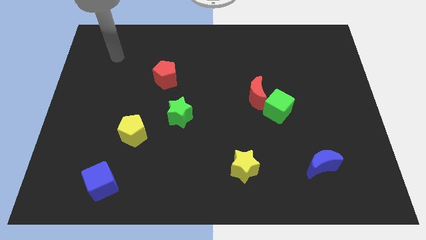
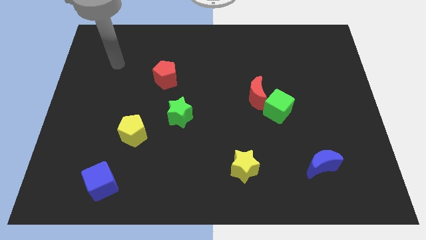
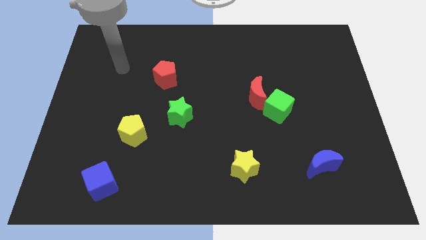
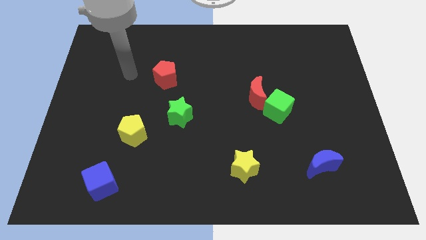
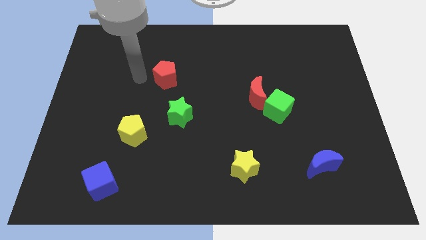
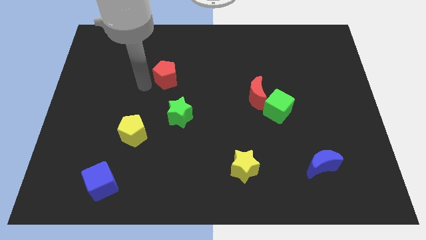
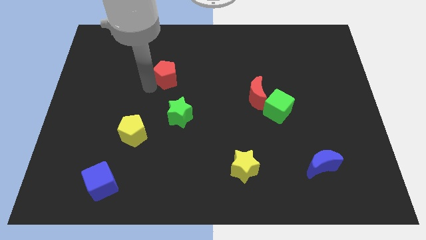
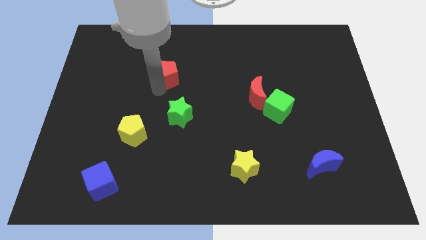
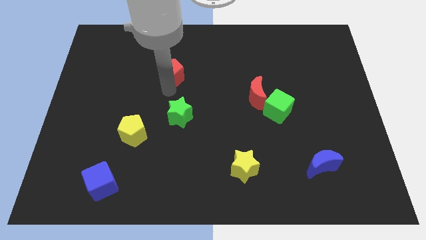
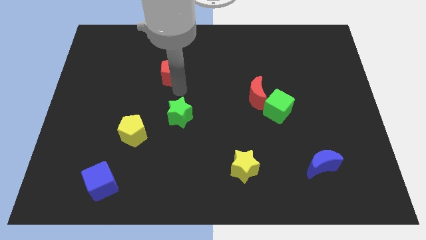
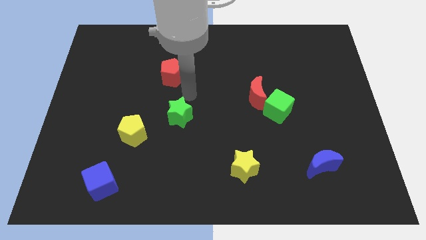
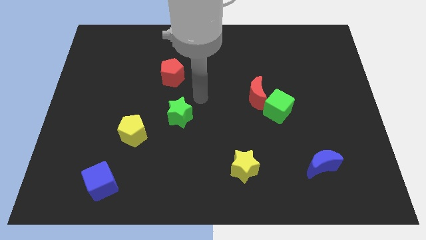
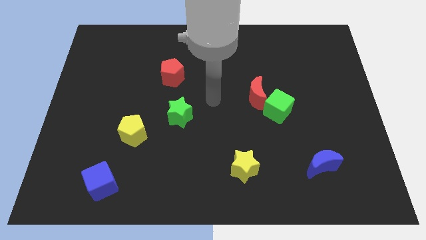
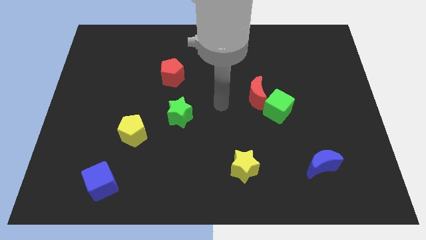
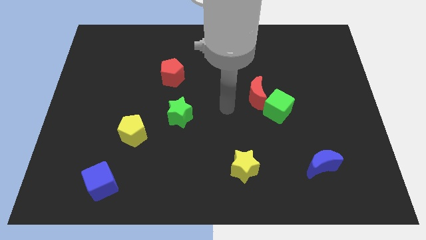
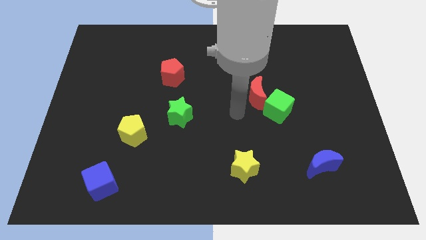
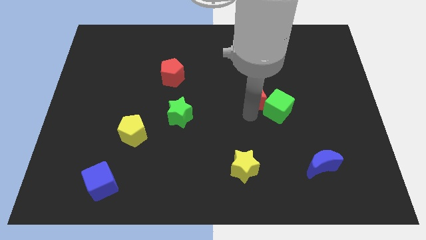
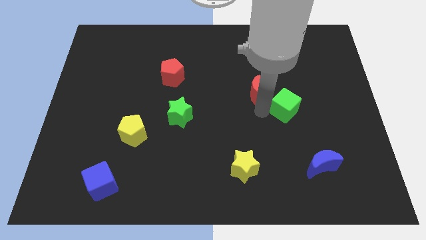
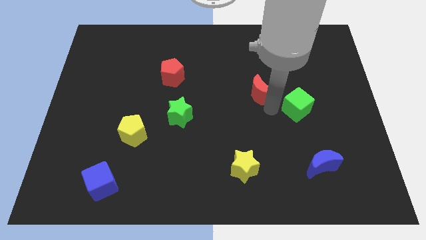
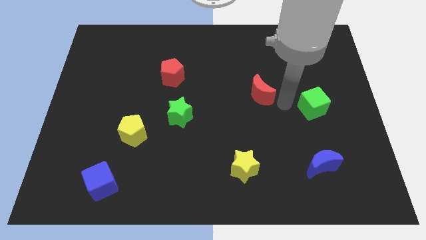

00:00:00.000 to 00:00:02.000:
pull the red moon apart from the green cube

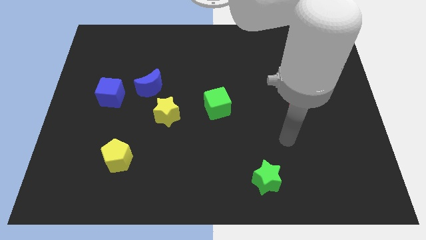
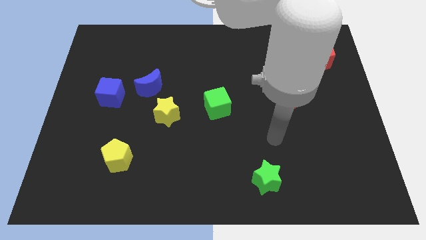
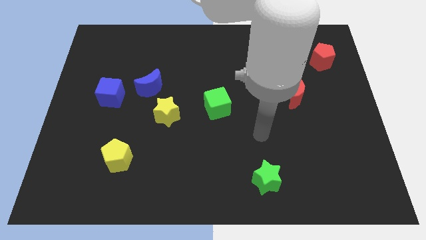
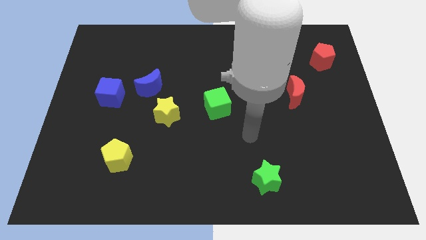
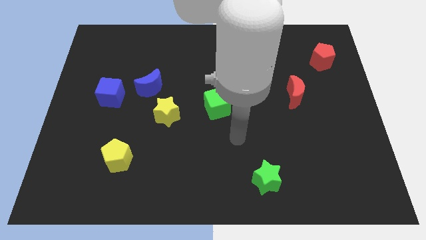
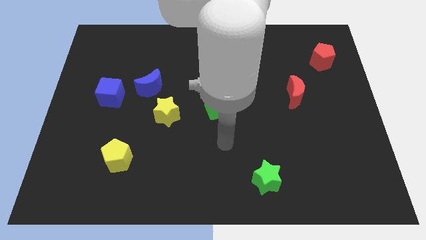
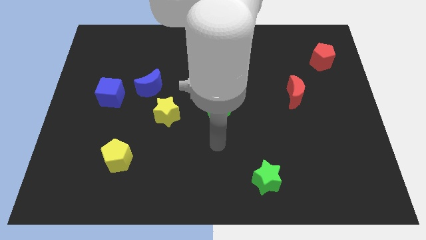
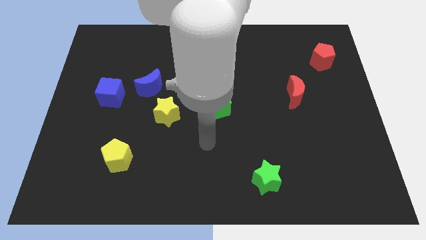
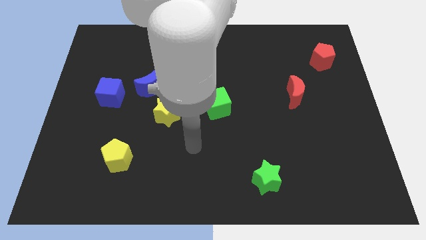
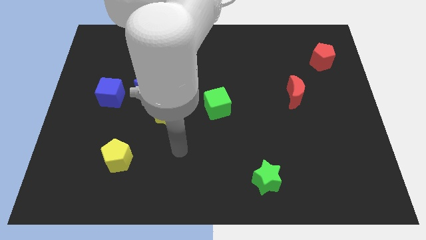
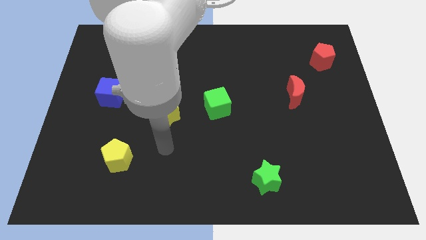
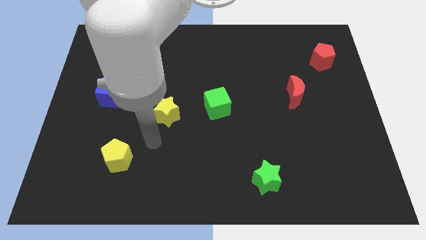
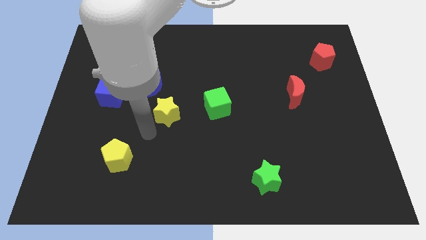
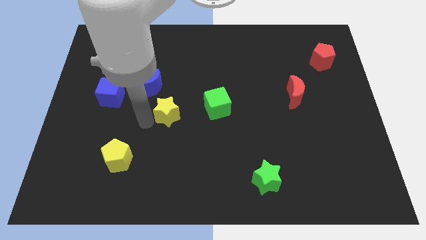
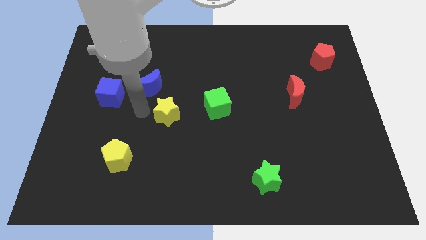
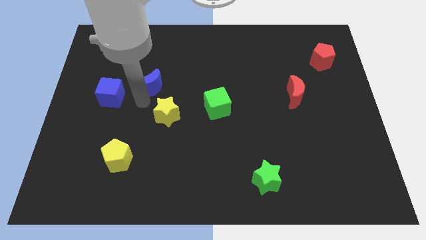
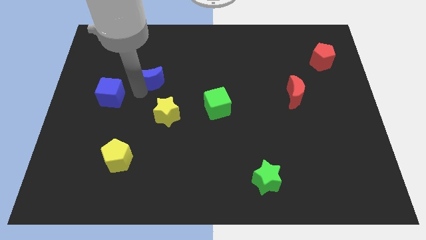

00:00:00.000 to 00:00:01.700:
move the blue cube away from the blue moon

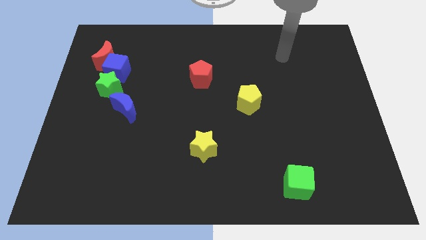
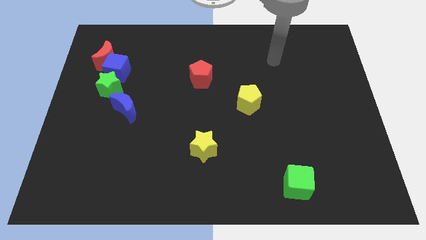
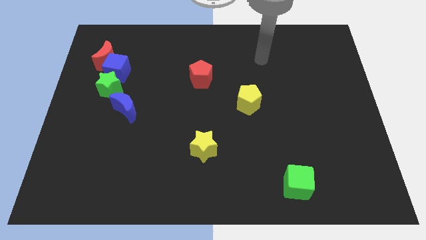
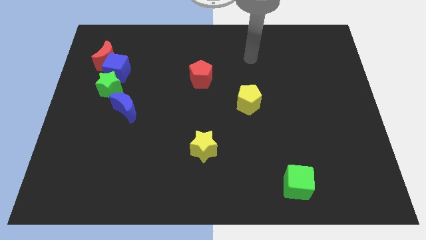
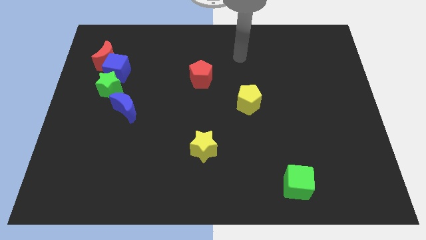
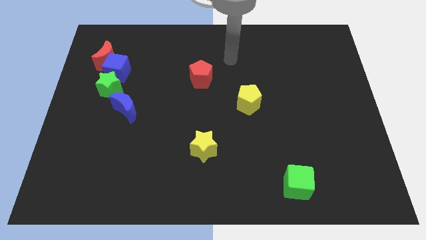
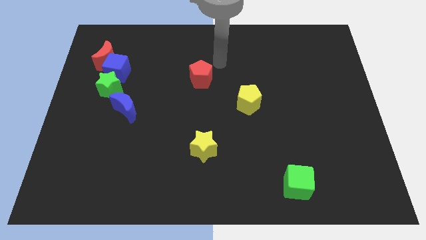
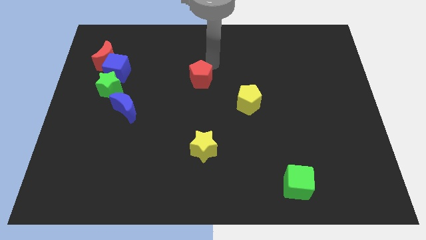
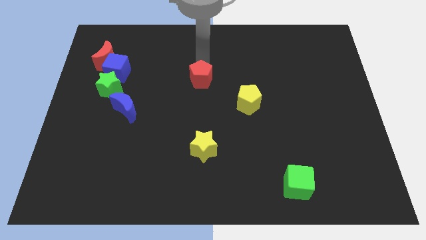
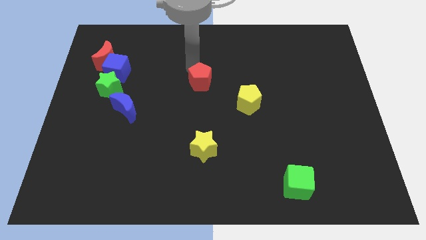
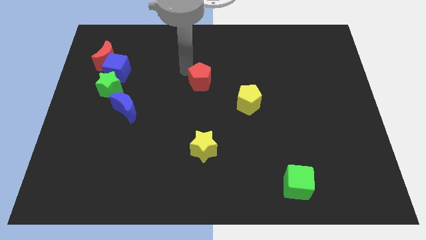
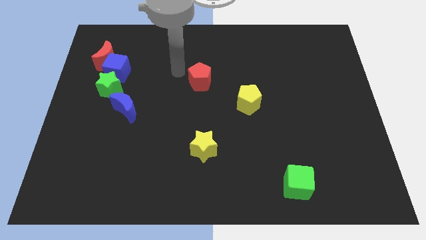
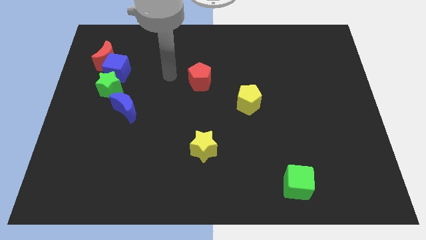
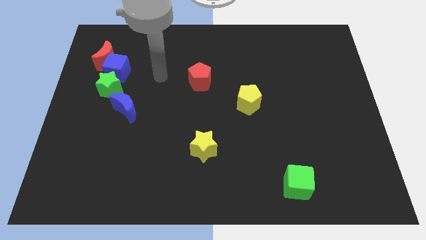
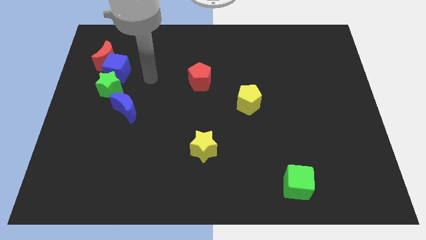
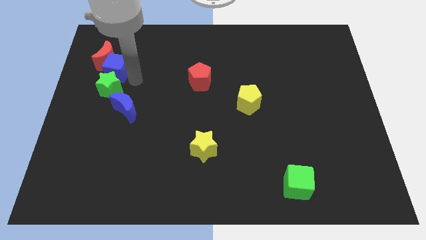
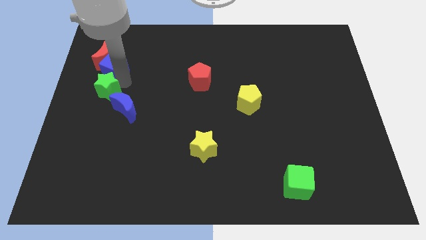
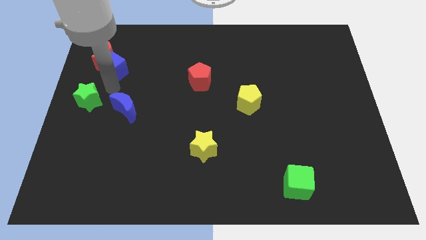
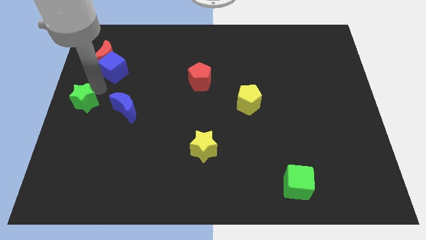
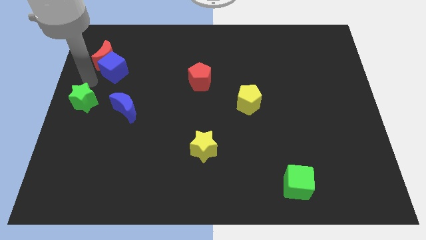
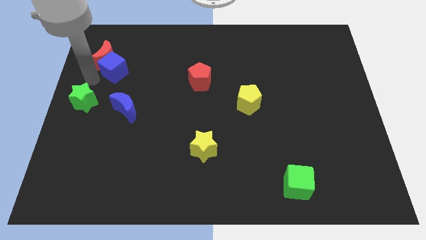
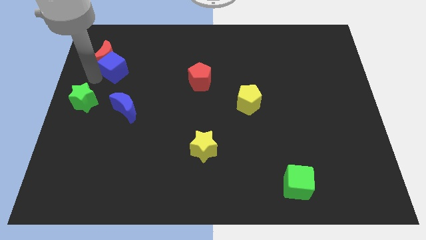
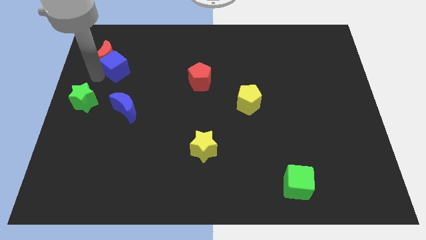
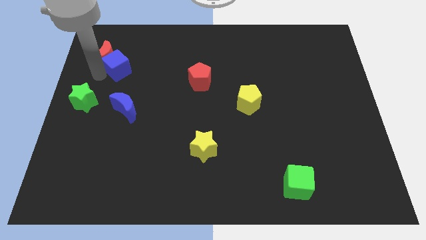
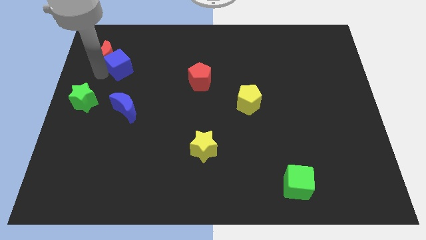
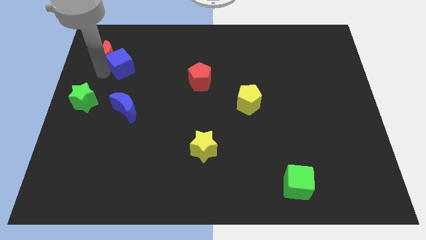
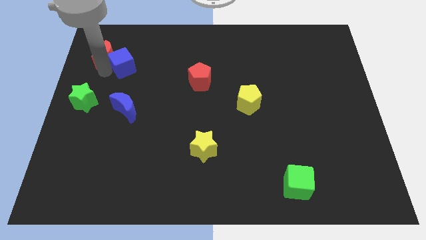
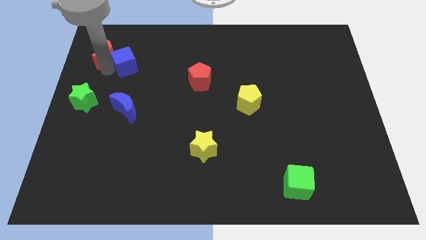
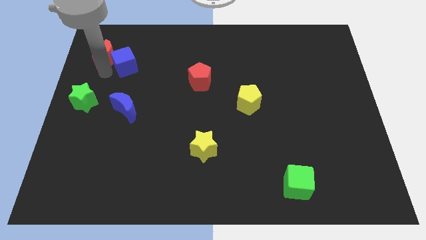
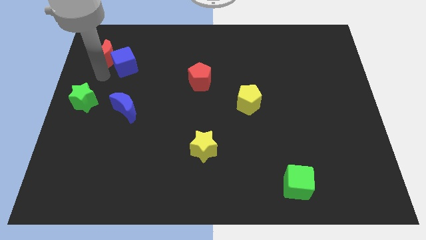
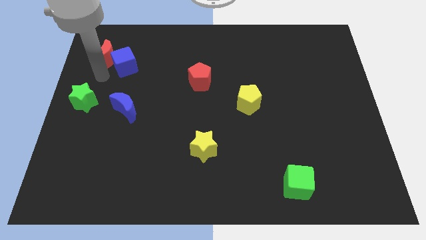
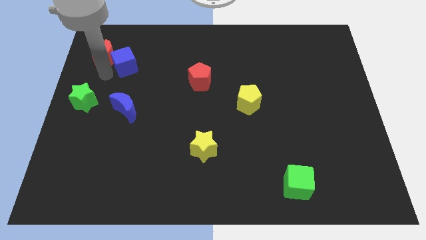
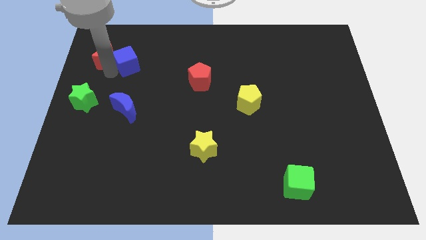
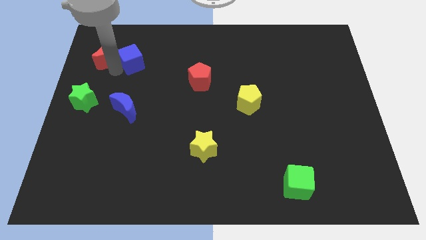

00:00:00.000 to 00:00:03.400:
pull the blue cube apart from the red moon and green star

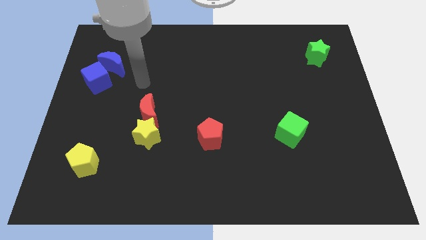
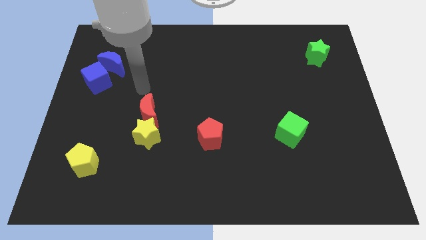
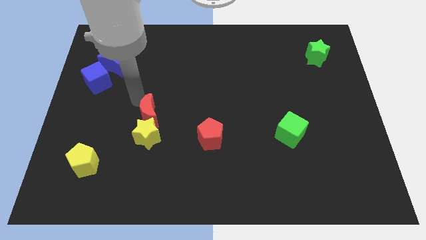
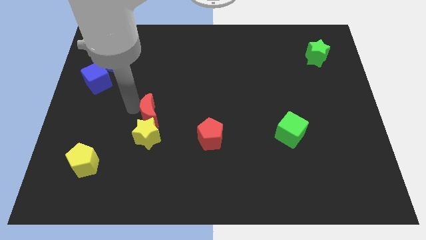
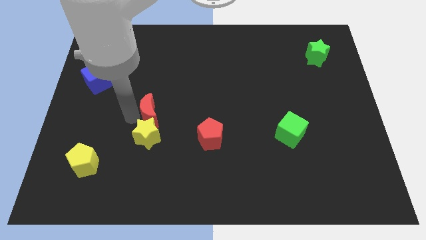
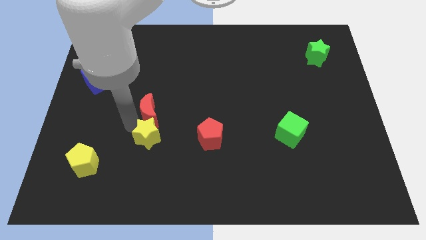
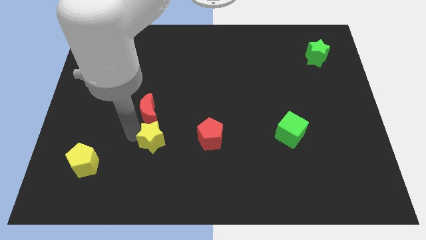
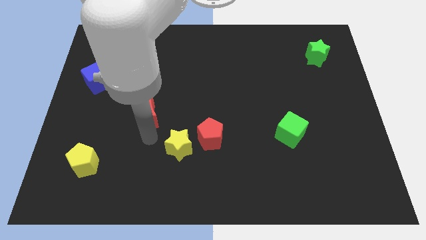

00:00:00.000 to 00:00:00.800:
pull the red moon apart from the yellow star

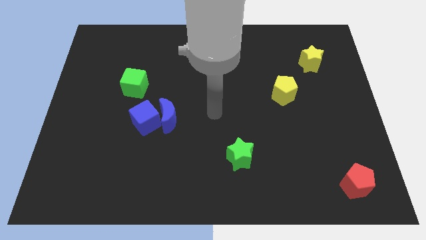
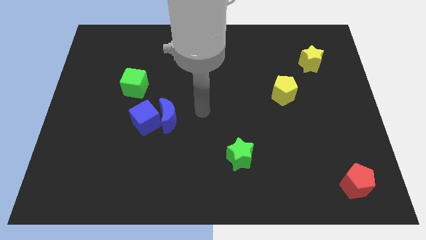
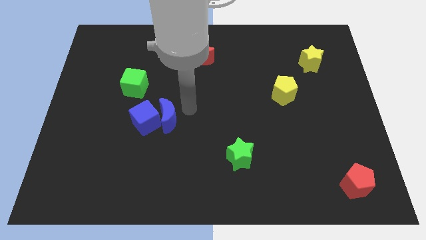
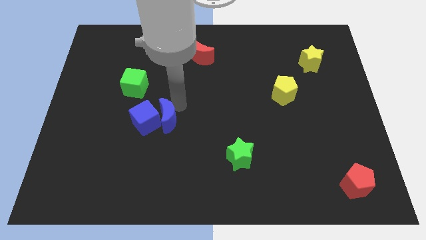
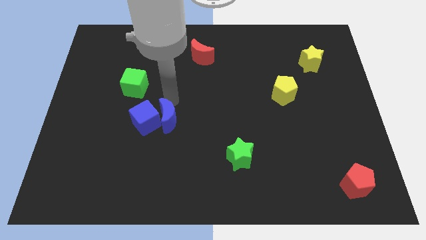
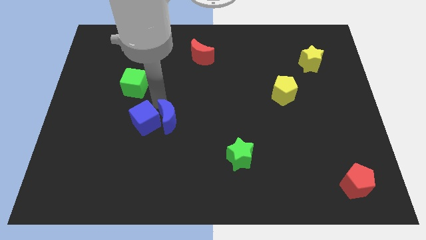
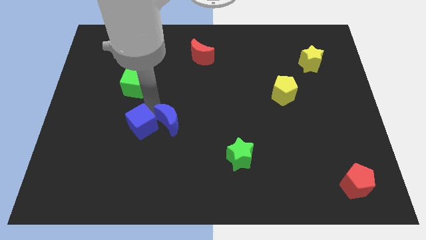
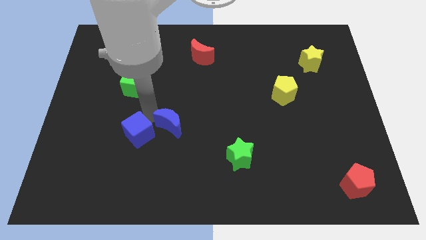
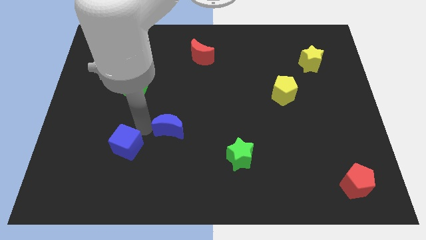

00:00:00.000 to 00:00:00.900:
pull the blue moon apart from the blue cube

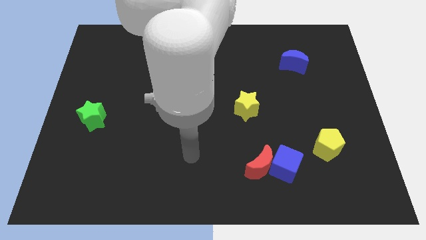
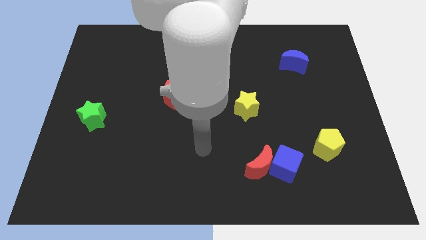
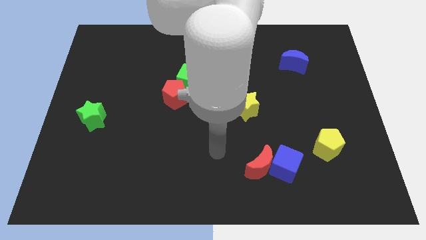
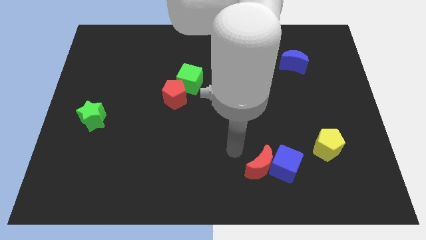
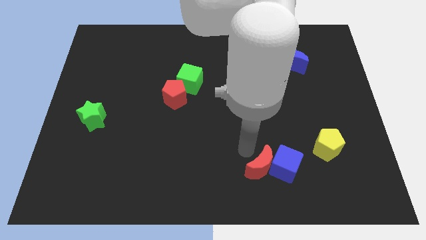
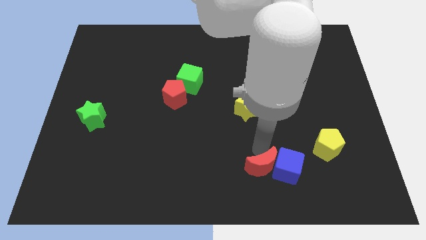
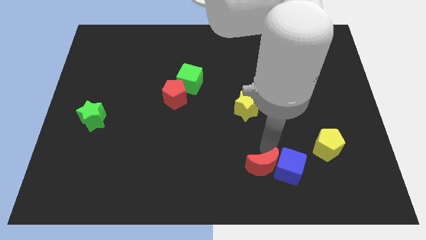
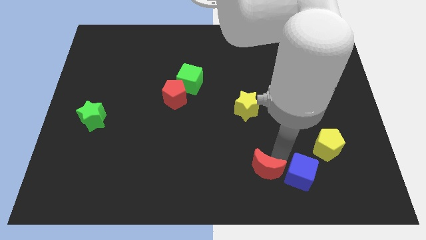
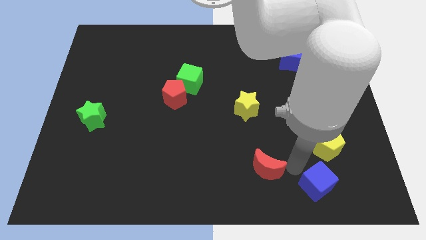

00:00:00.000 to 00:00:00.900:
separate the red moon from the blue cube
